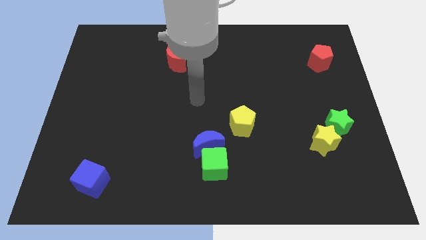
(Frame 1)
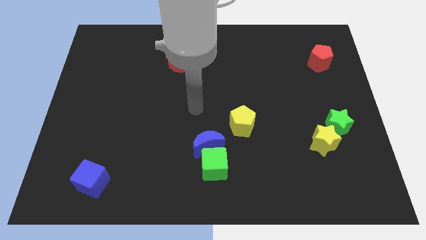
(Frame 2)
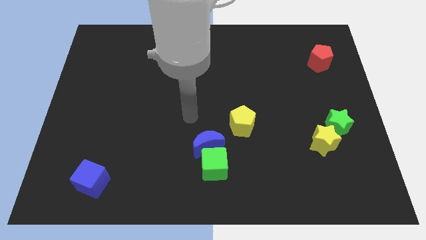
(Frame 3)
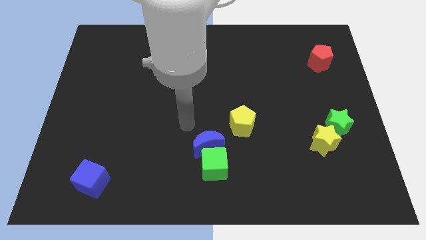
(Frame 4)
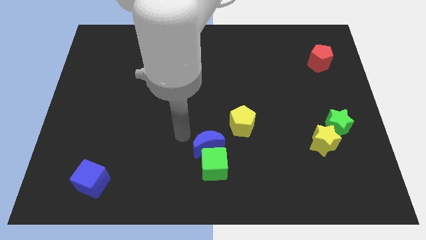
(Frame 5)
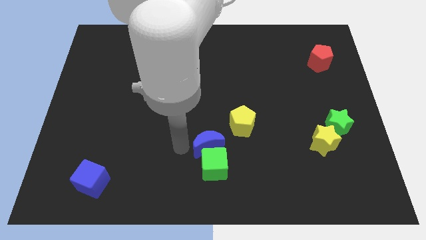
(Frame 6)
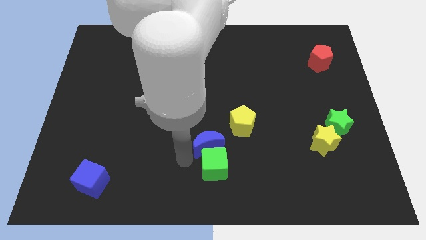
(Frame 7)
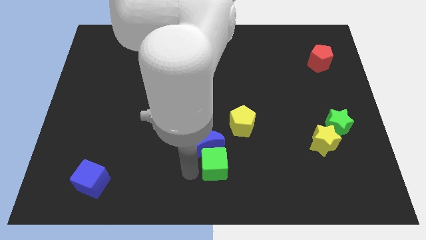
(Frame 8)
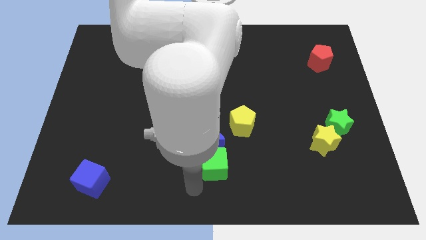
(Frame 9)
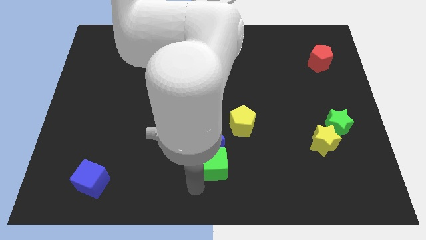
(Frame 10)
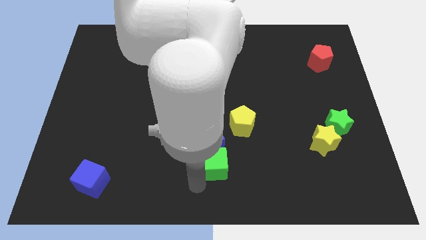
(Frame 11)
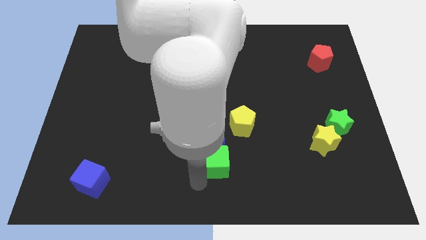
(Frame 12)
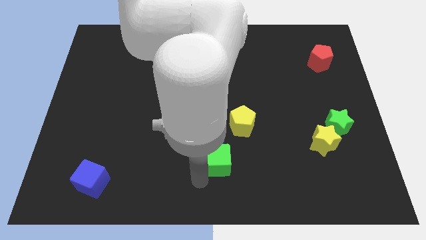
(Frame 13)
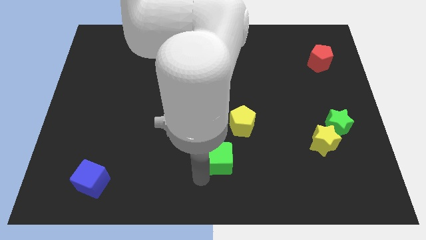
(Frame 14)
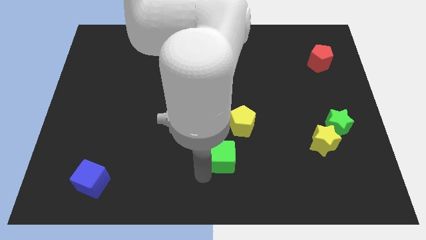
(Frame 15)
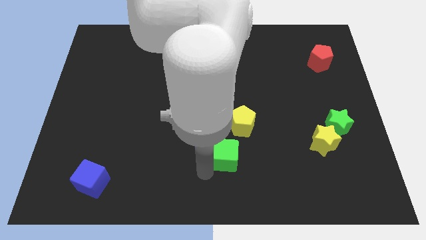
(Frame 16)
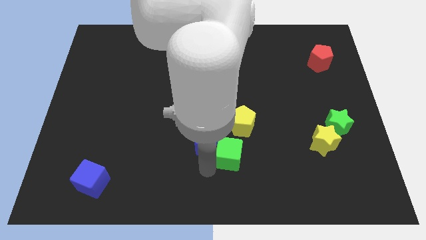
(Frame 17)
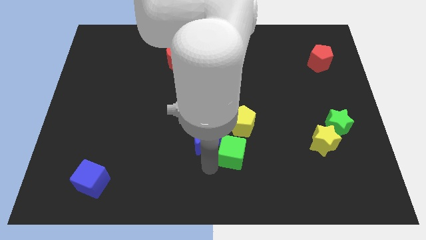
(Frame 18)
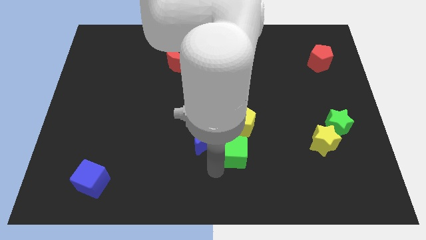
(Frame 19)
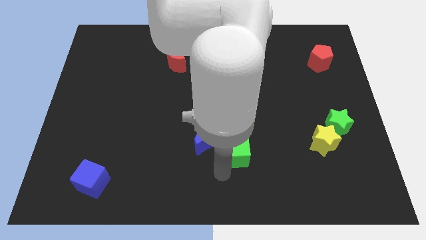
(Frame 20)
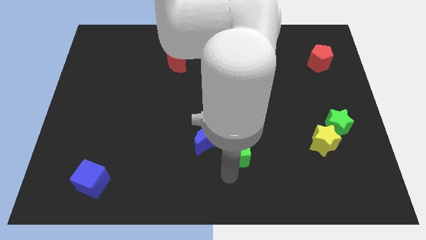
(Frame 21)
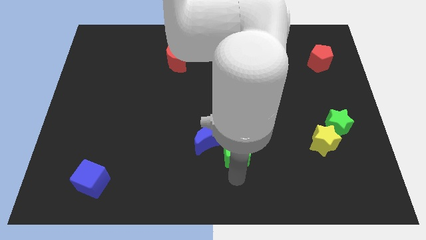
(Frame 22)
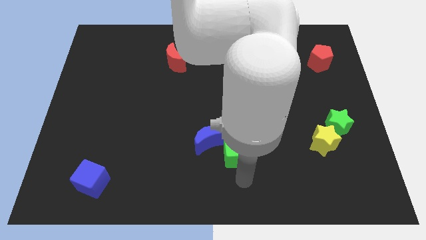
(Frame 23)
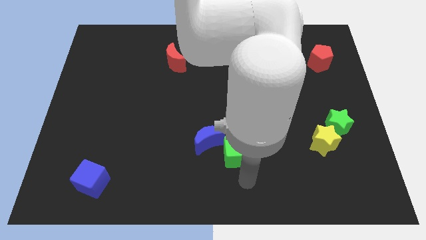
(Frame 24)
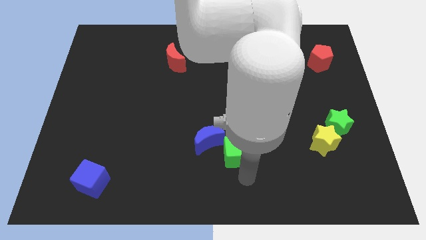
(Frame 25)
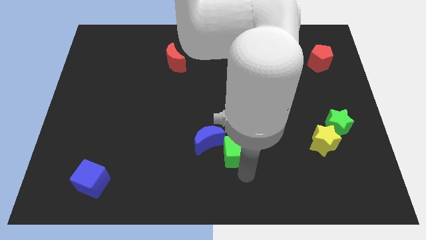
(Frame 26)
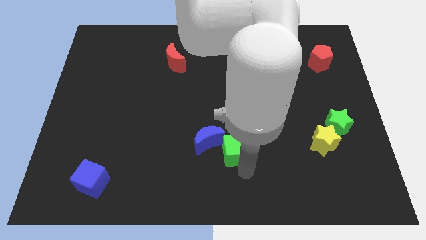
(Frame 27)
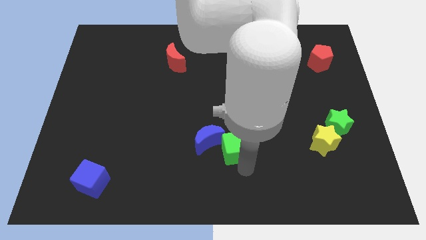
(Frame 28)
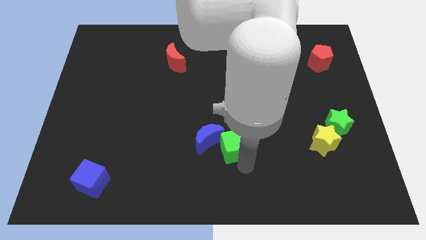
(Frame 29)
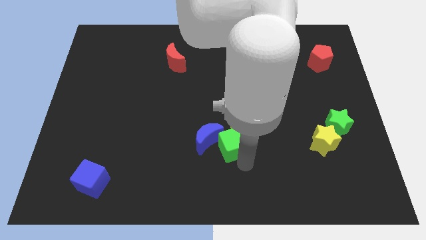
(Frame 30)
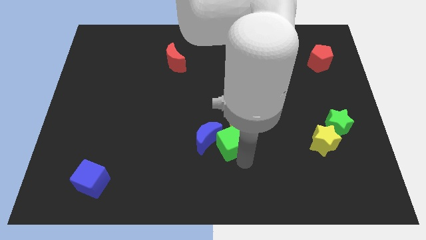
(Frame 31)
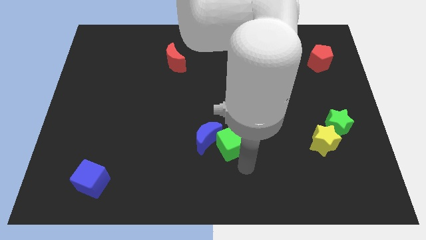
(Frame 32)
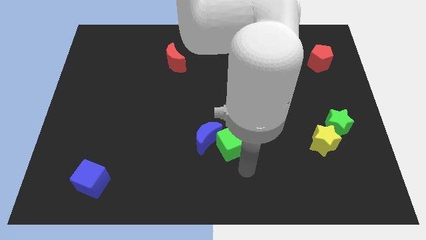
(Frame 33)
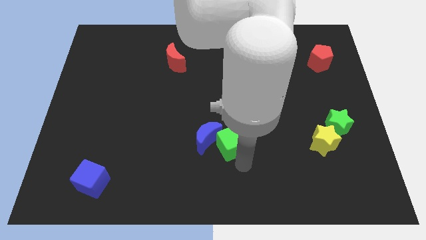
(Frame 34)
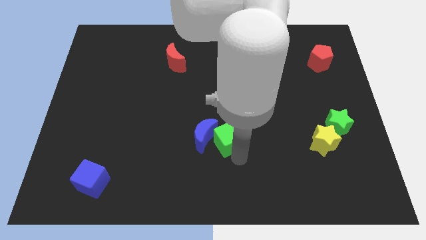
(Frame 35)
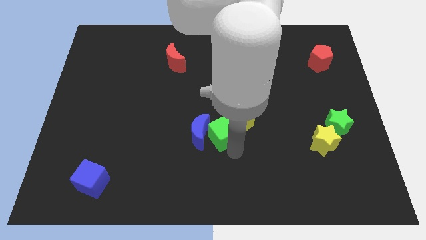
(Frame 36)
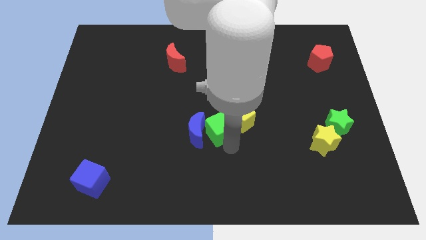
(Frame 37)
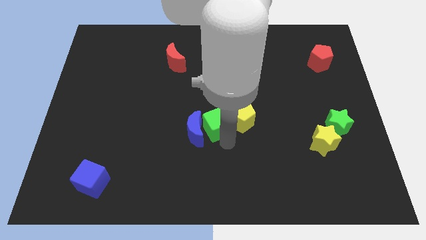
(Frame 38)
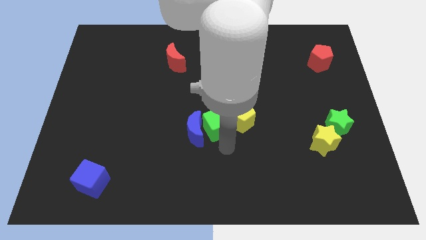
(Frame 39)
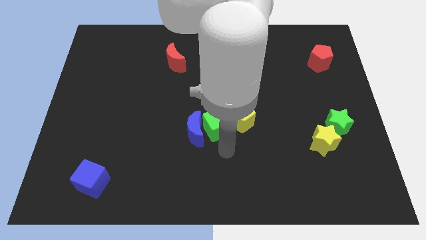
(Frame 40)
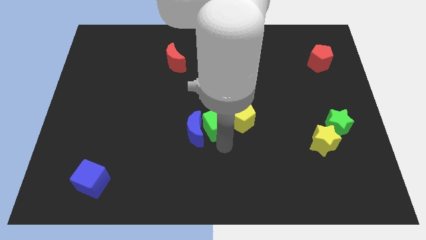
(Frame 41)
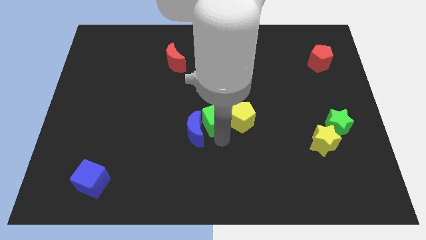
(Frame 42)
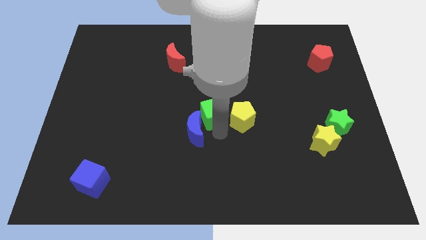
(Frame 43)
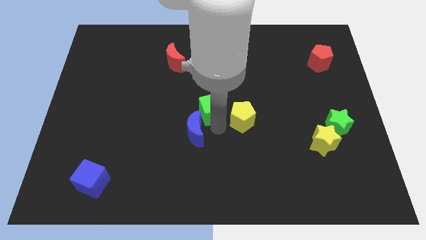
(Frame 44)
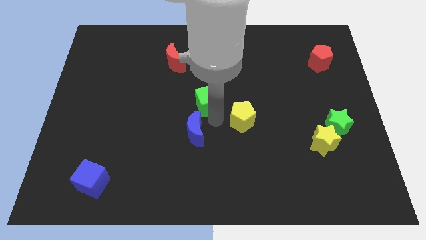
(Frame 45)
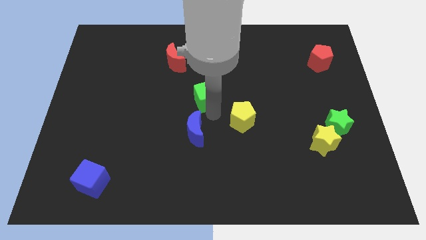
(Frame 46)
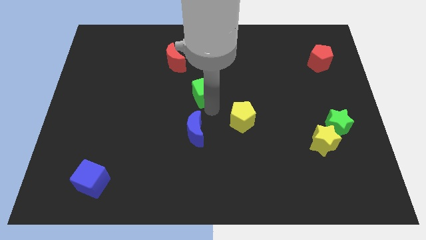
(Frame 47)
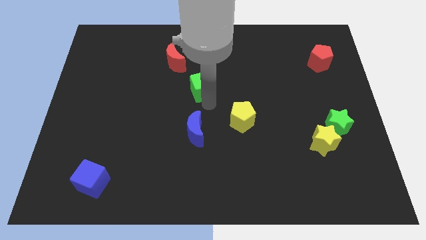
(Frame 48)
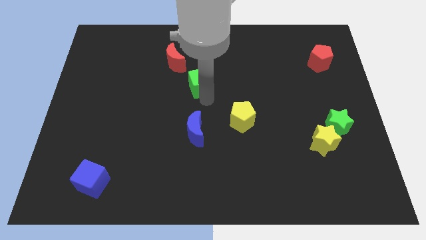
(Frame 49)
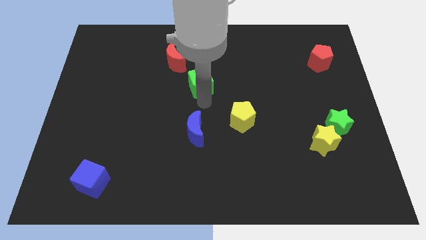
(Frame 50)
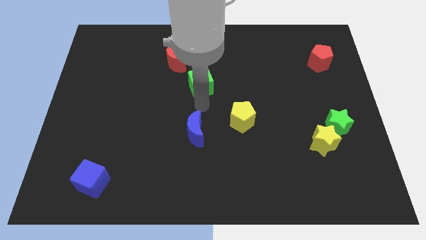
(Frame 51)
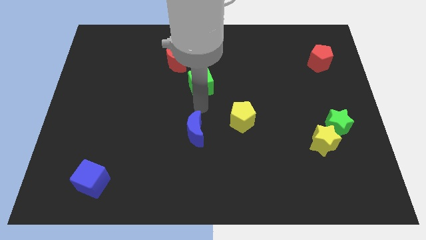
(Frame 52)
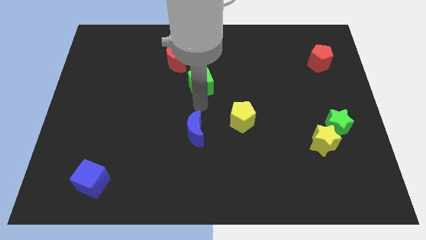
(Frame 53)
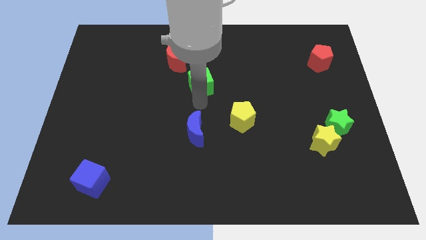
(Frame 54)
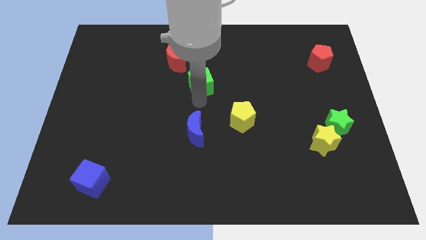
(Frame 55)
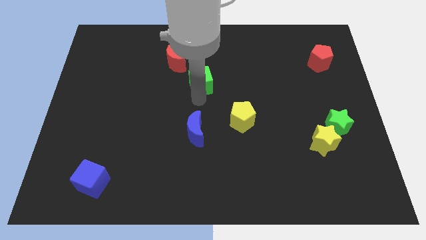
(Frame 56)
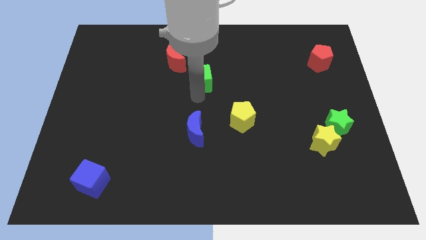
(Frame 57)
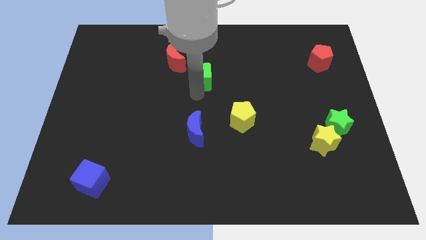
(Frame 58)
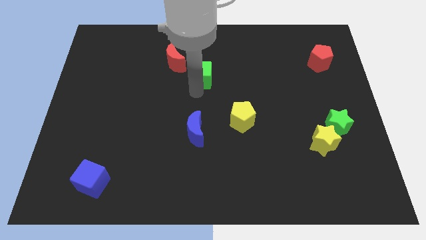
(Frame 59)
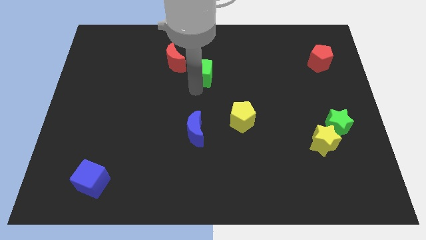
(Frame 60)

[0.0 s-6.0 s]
put the green cube right of the red moon

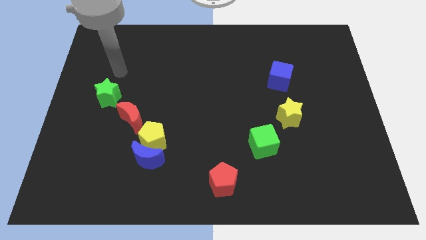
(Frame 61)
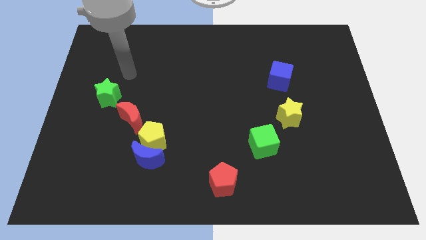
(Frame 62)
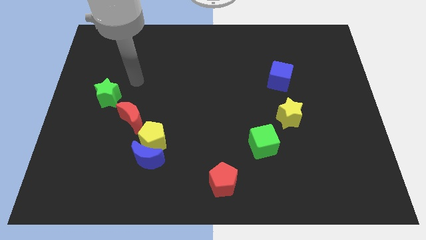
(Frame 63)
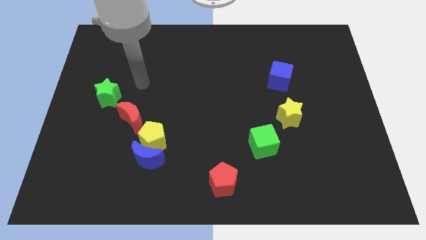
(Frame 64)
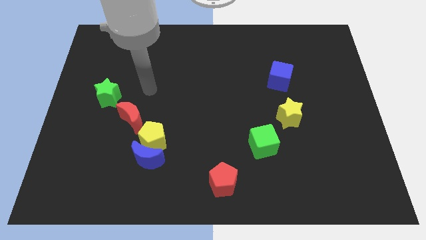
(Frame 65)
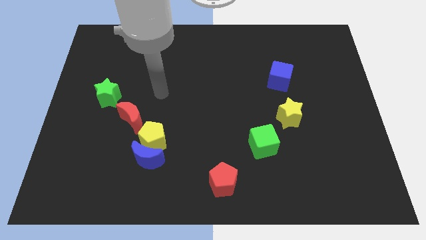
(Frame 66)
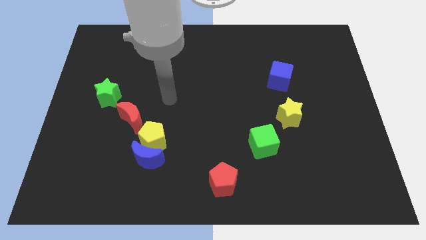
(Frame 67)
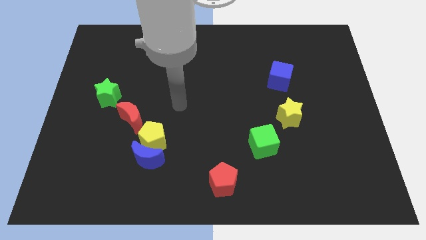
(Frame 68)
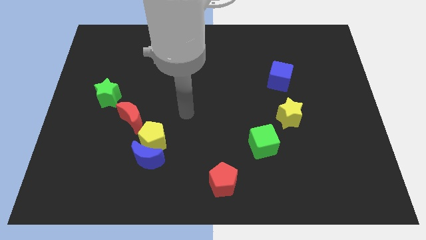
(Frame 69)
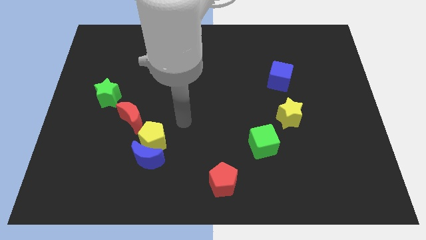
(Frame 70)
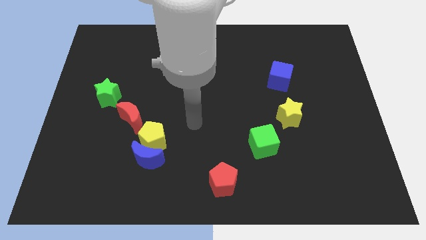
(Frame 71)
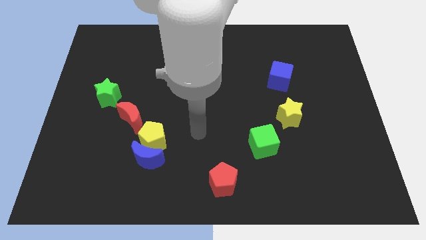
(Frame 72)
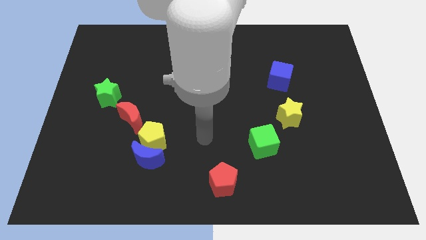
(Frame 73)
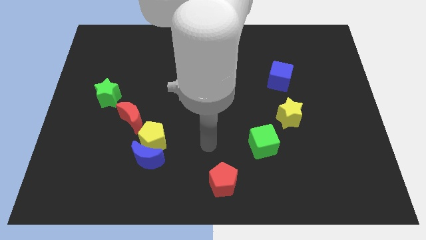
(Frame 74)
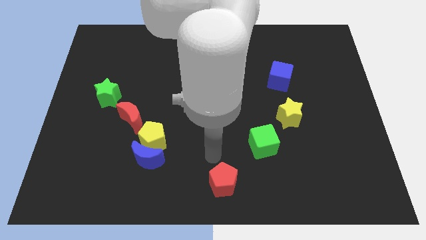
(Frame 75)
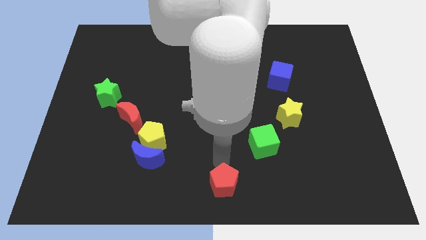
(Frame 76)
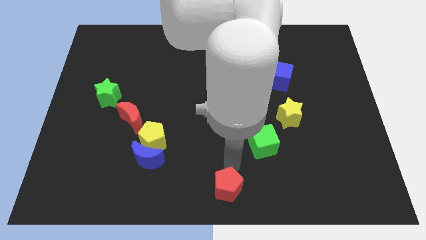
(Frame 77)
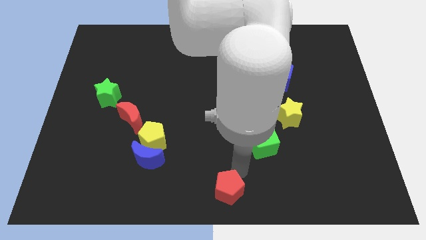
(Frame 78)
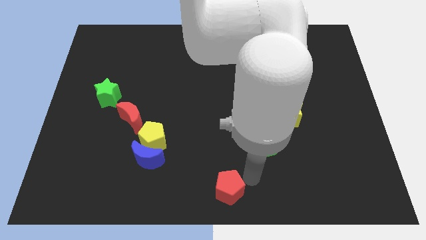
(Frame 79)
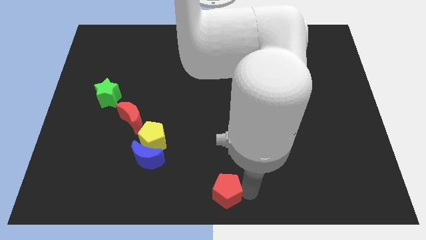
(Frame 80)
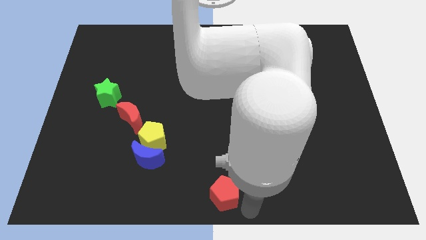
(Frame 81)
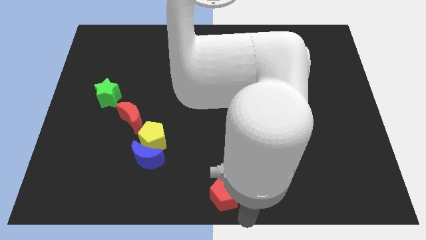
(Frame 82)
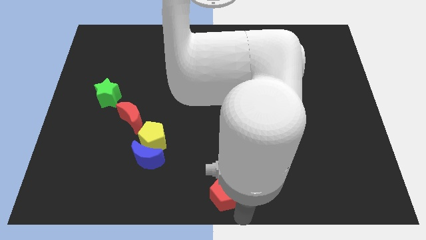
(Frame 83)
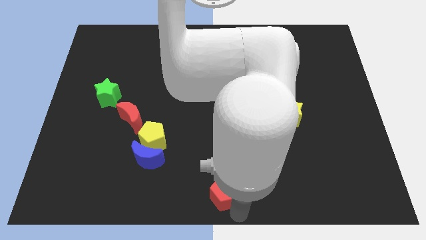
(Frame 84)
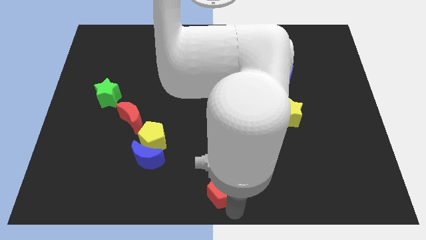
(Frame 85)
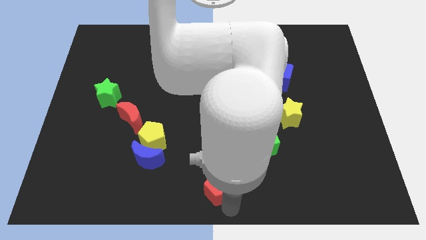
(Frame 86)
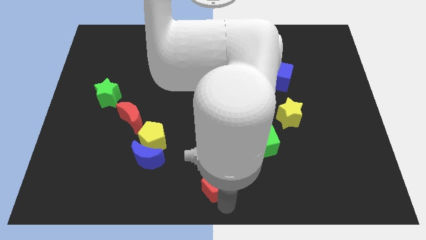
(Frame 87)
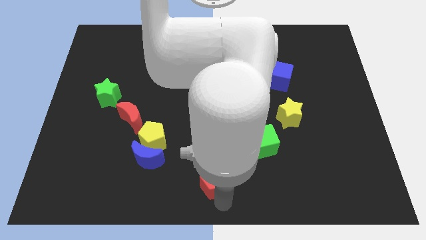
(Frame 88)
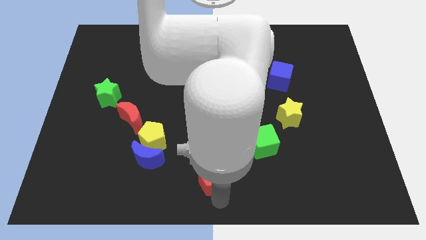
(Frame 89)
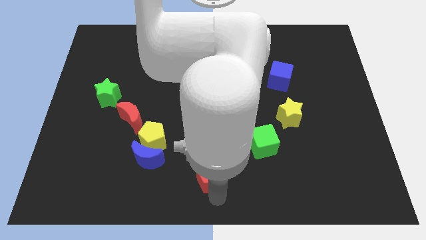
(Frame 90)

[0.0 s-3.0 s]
push the red pentagon right of the blue moon
